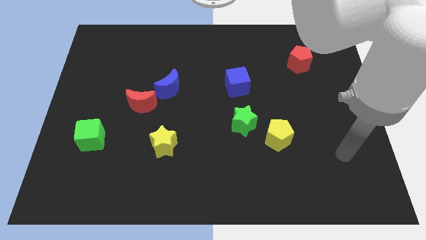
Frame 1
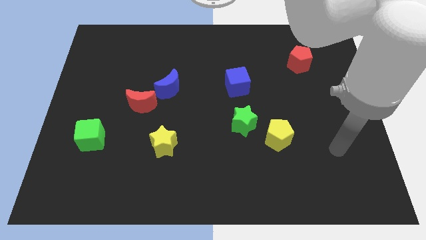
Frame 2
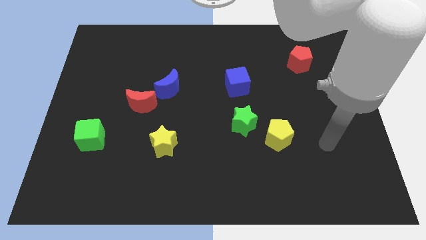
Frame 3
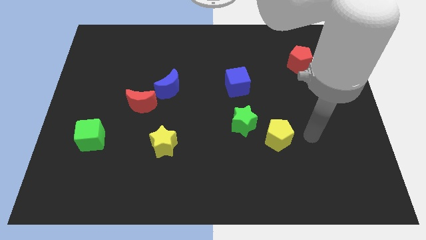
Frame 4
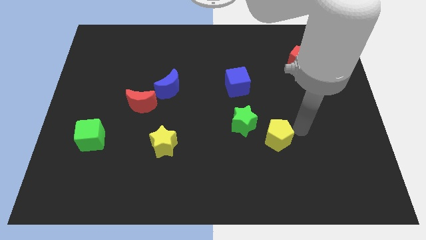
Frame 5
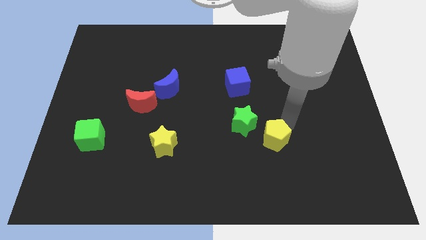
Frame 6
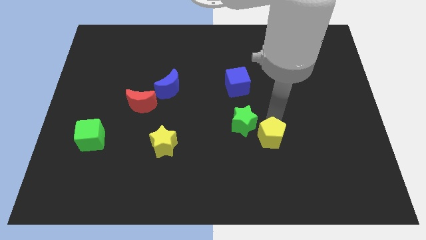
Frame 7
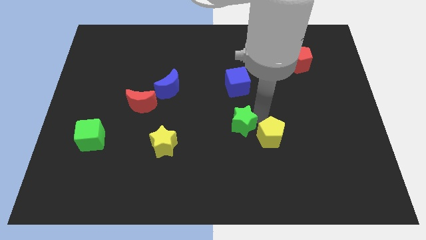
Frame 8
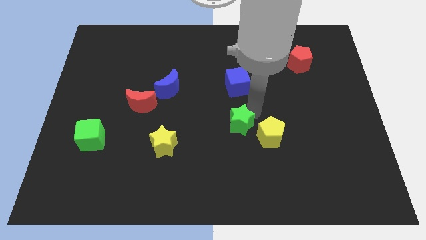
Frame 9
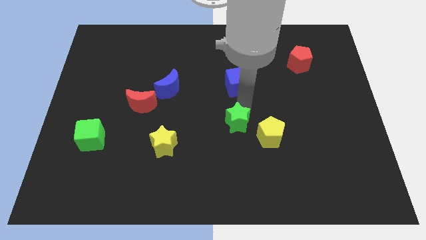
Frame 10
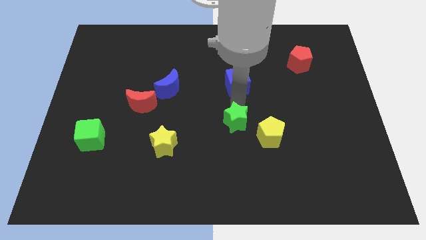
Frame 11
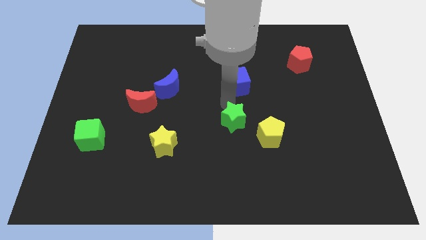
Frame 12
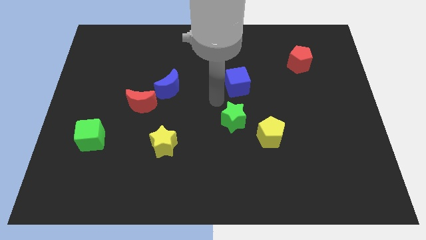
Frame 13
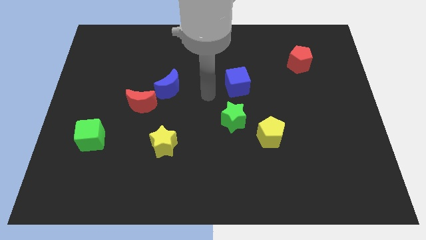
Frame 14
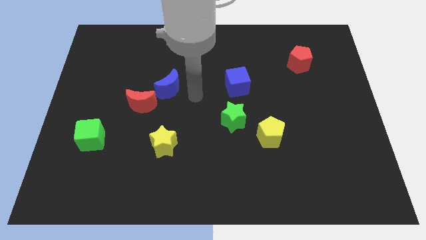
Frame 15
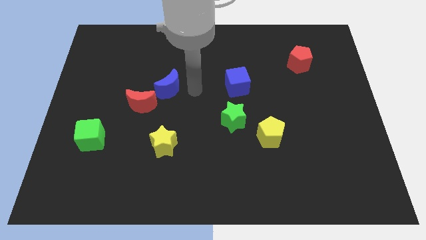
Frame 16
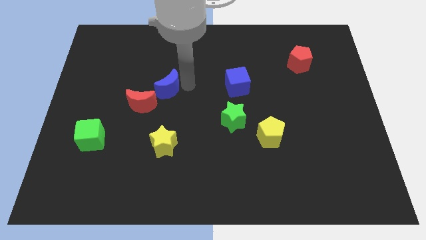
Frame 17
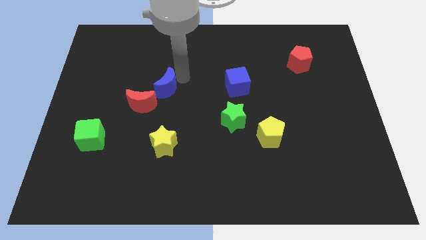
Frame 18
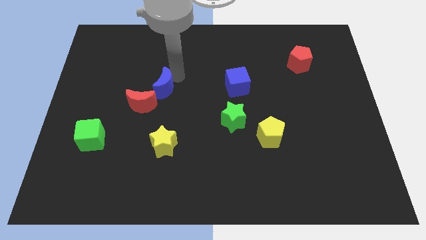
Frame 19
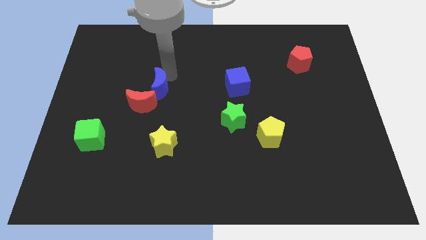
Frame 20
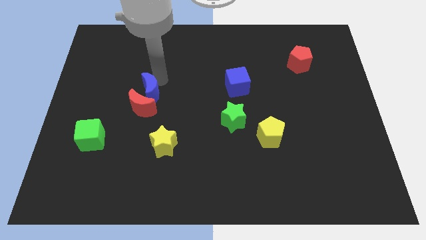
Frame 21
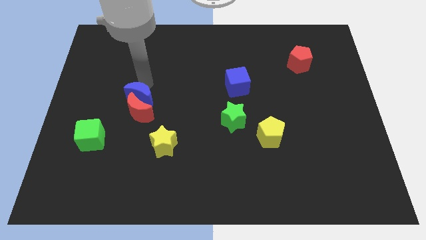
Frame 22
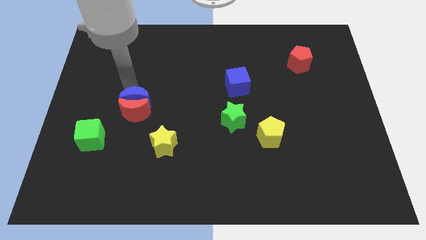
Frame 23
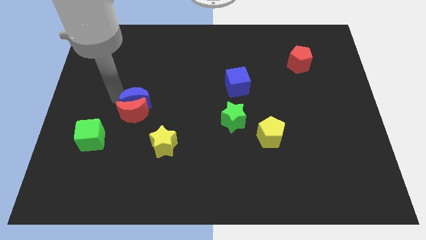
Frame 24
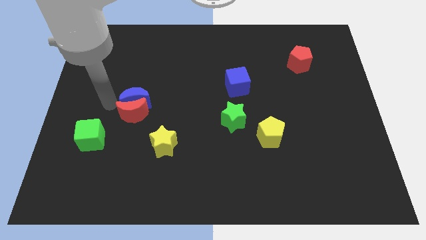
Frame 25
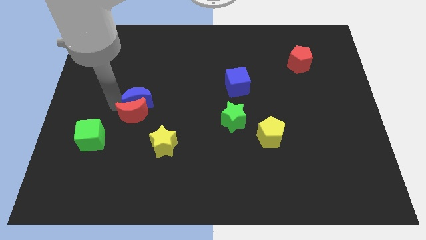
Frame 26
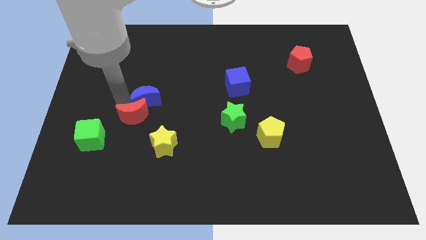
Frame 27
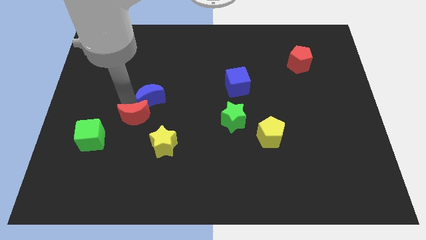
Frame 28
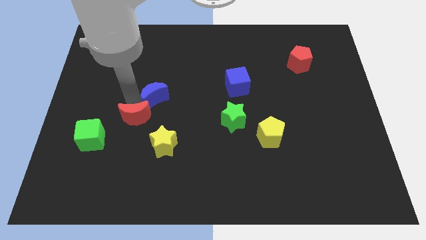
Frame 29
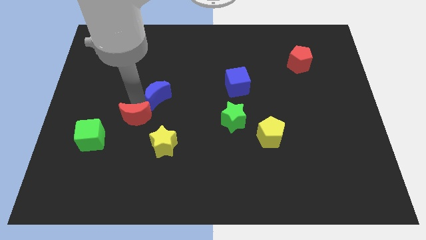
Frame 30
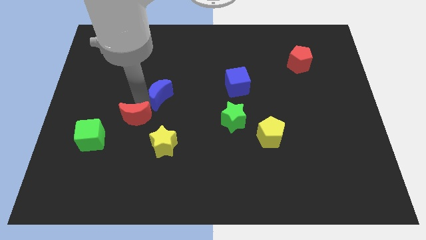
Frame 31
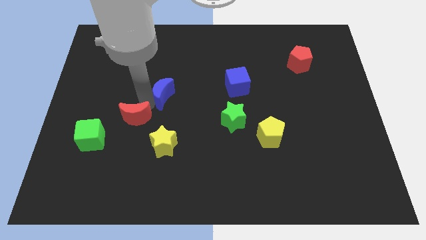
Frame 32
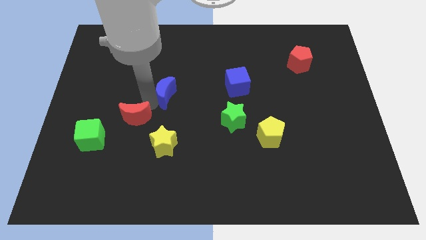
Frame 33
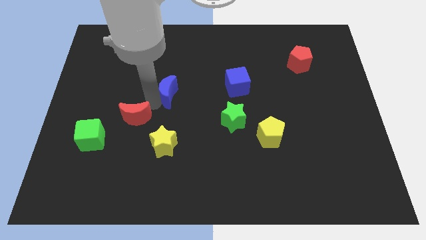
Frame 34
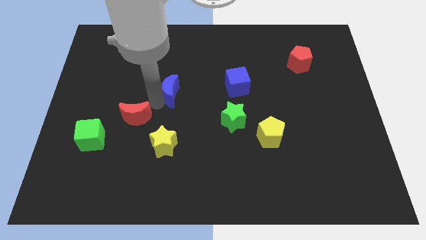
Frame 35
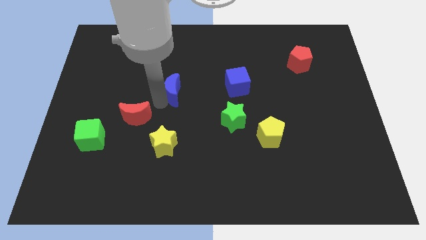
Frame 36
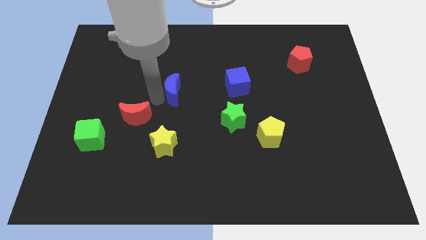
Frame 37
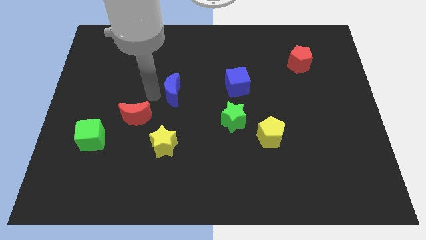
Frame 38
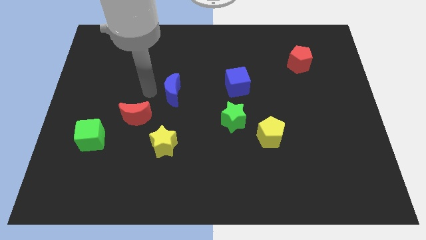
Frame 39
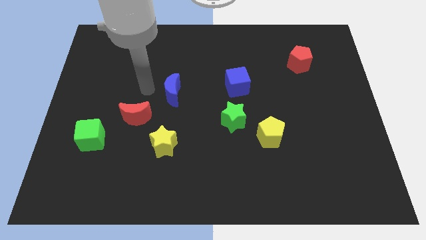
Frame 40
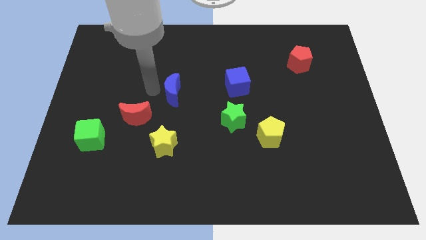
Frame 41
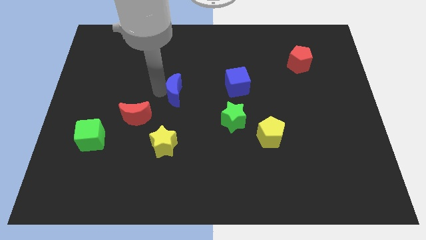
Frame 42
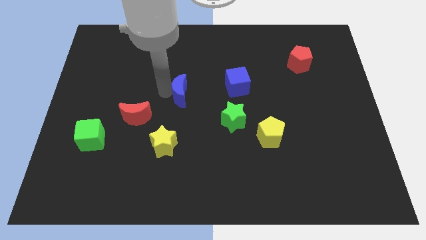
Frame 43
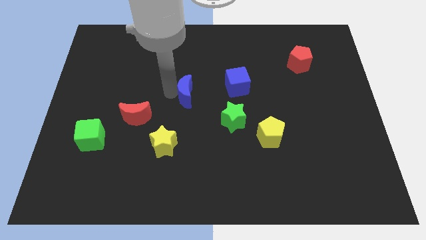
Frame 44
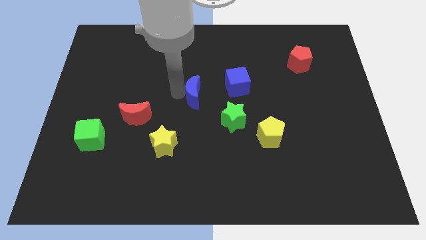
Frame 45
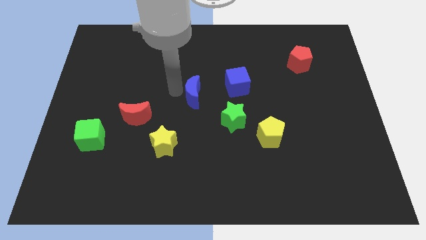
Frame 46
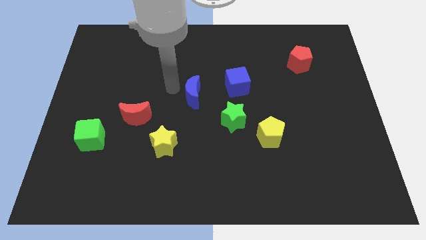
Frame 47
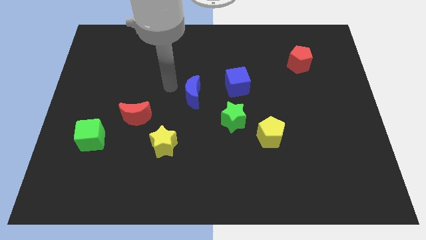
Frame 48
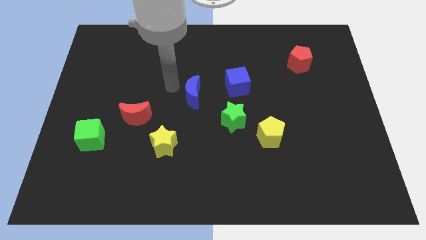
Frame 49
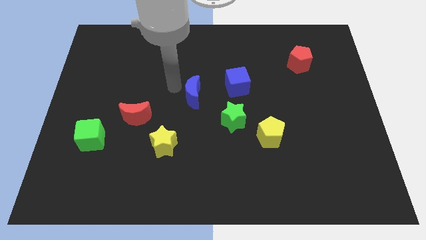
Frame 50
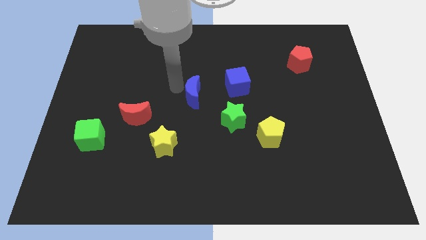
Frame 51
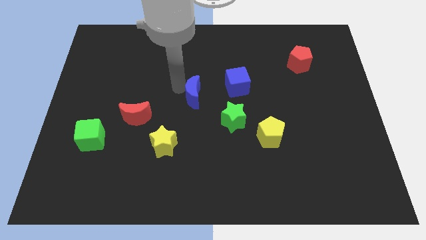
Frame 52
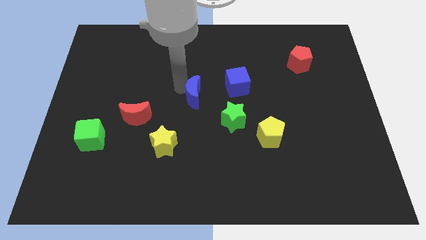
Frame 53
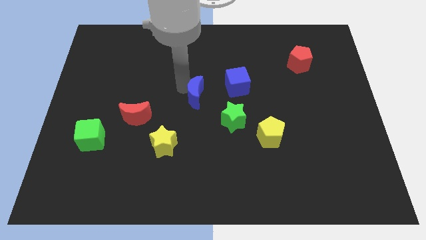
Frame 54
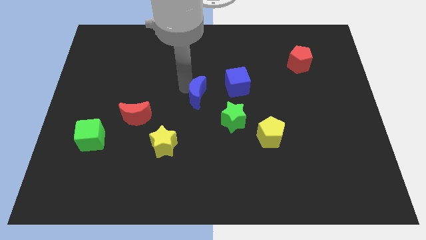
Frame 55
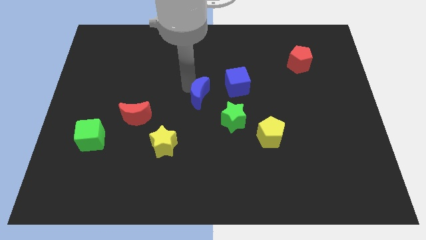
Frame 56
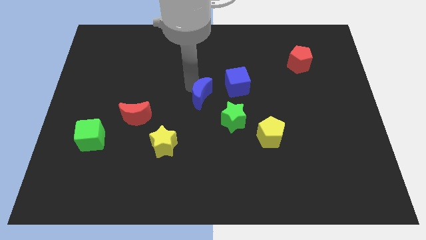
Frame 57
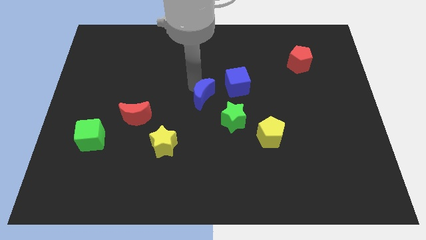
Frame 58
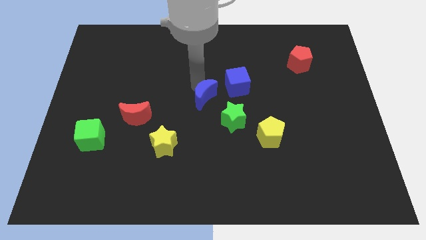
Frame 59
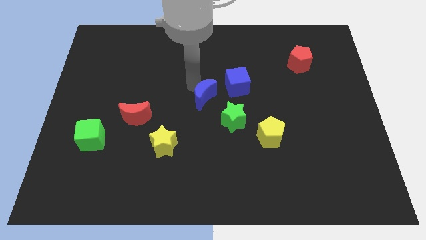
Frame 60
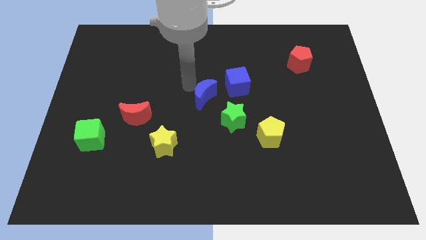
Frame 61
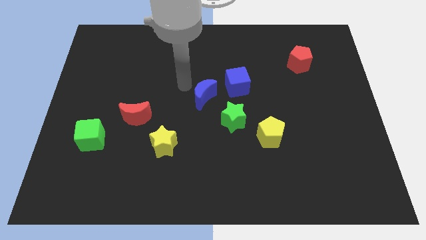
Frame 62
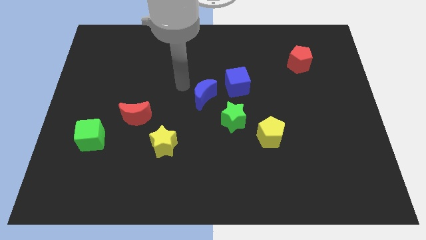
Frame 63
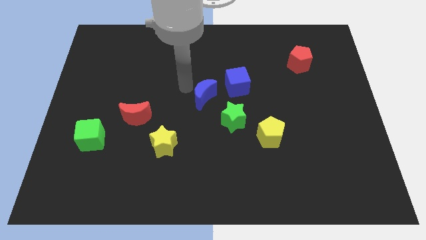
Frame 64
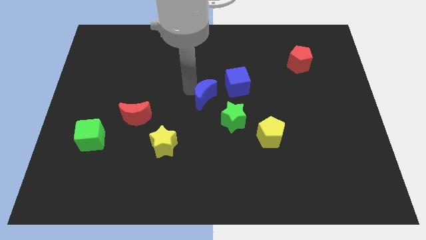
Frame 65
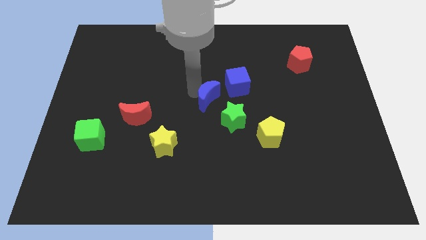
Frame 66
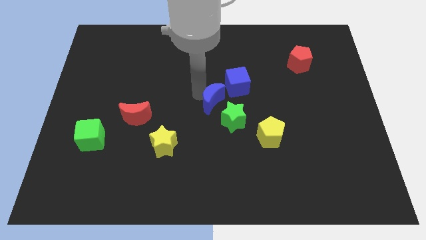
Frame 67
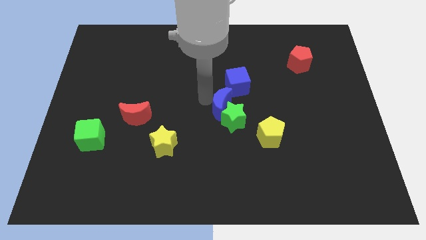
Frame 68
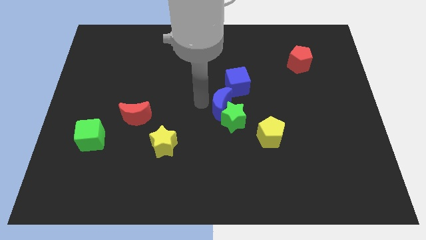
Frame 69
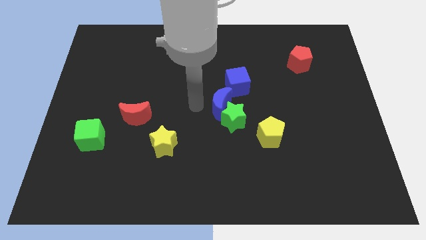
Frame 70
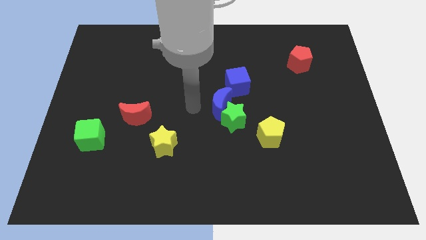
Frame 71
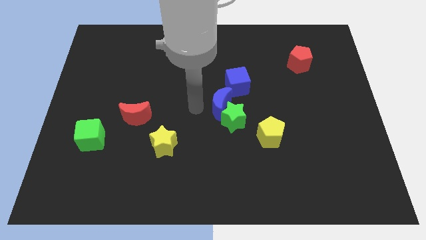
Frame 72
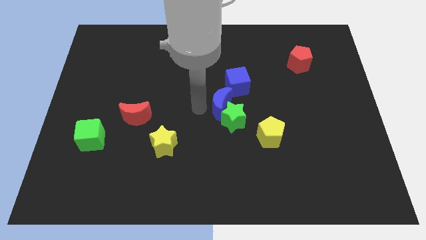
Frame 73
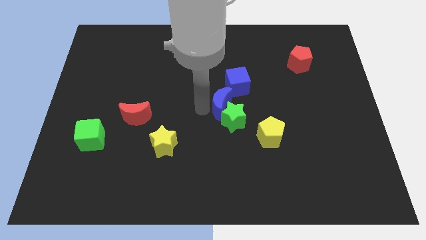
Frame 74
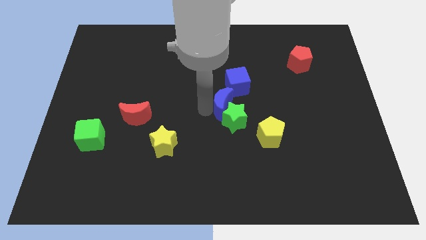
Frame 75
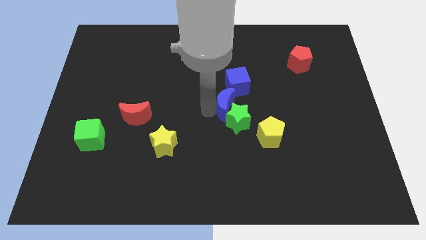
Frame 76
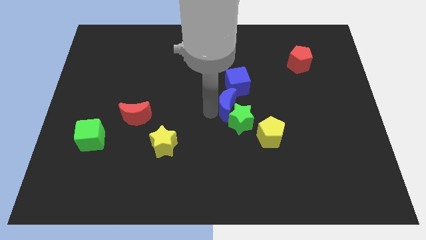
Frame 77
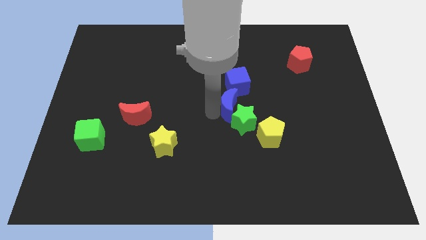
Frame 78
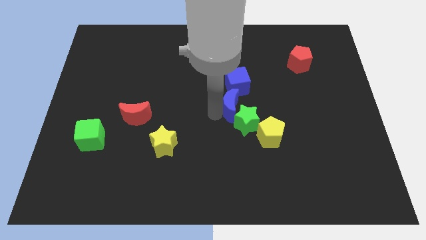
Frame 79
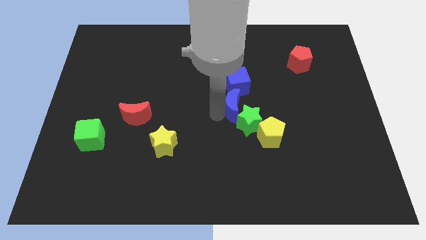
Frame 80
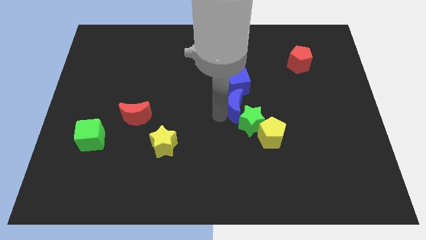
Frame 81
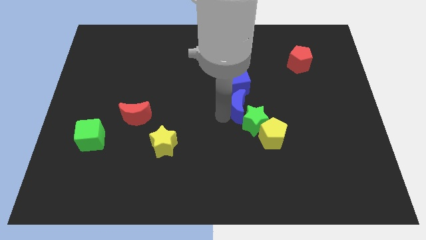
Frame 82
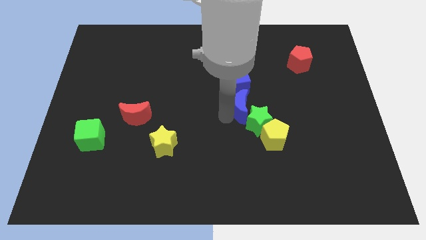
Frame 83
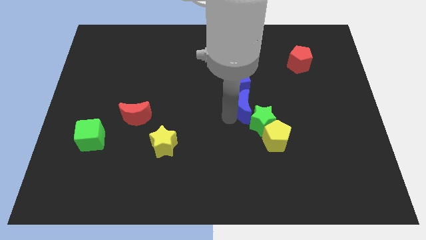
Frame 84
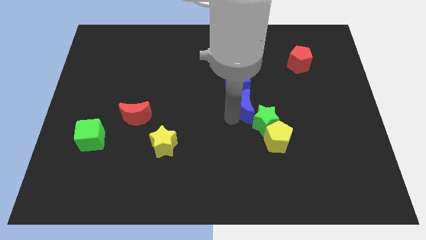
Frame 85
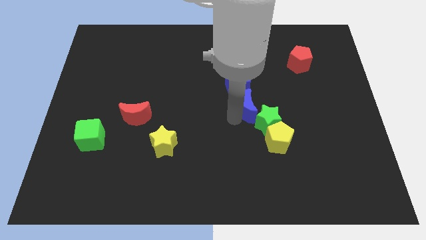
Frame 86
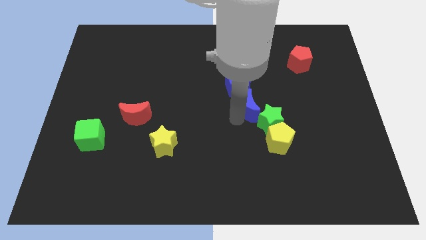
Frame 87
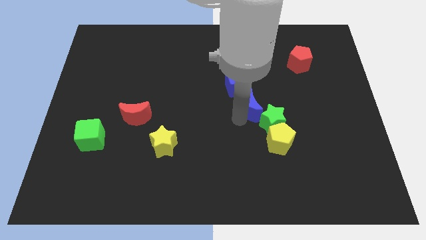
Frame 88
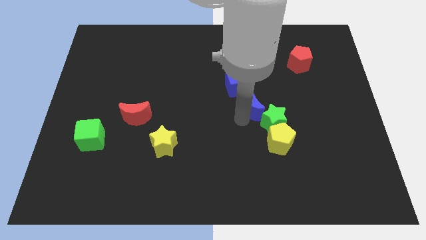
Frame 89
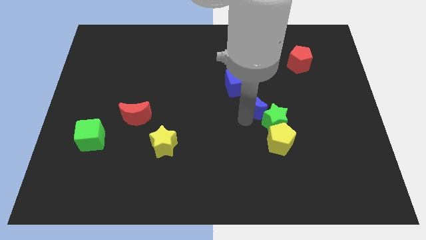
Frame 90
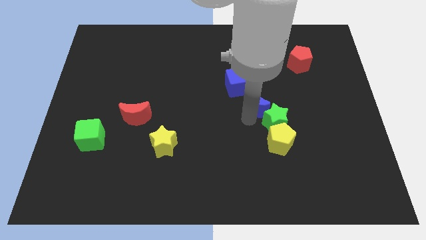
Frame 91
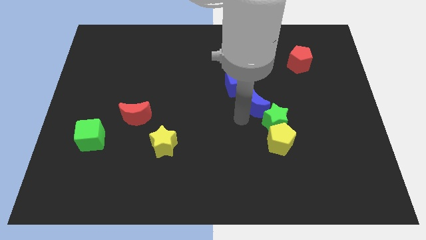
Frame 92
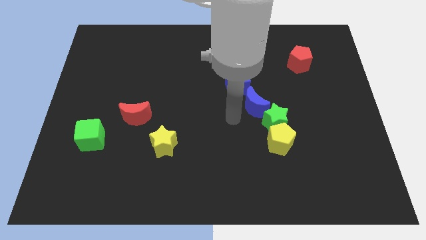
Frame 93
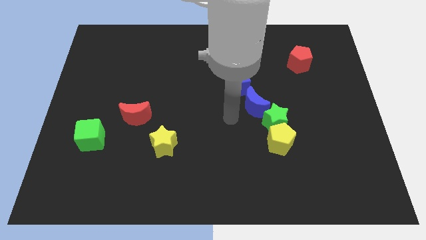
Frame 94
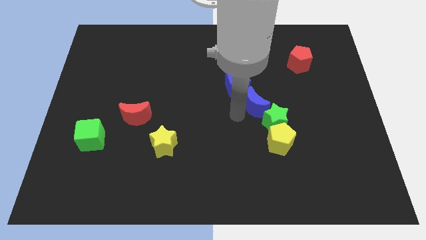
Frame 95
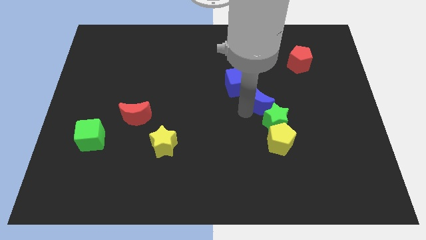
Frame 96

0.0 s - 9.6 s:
slide the blue moon to the right
